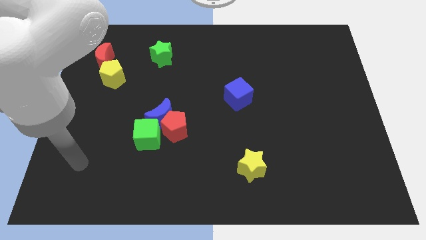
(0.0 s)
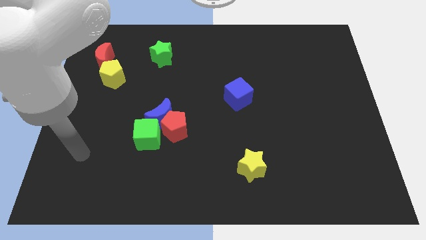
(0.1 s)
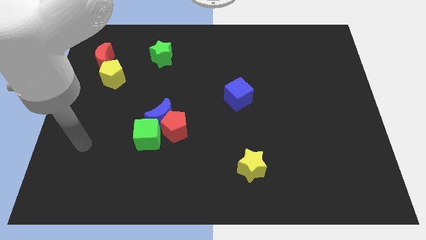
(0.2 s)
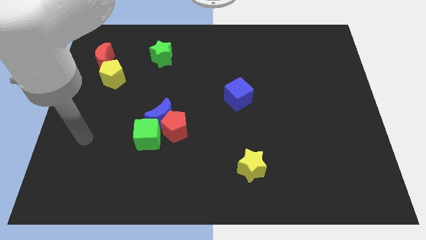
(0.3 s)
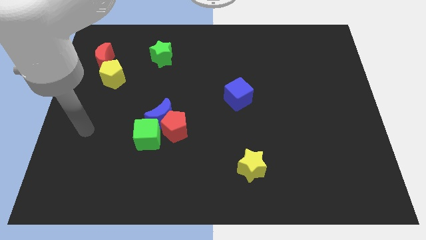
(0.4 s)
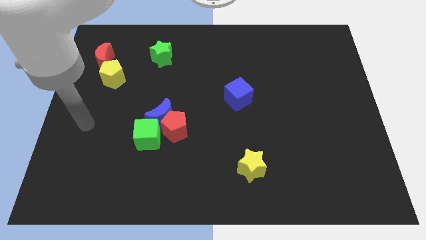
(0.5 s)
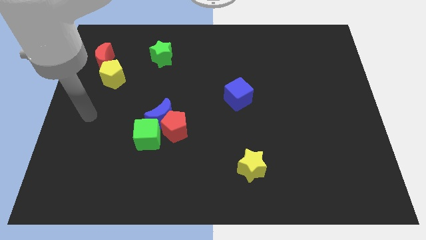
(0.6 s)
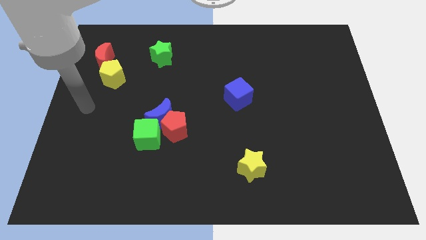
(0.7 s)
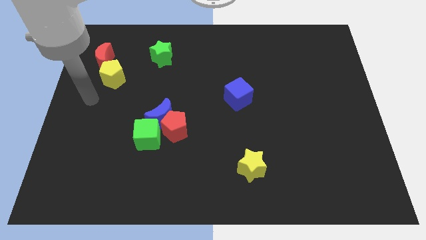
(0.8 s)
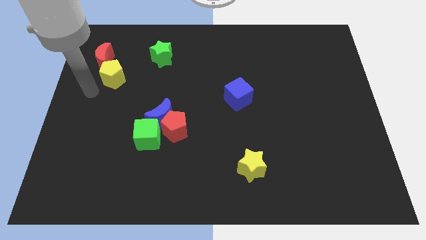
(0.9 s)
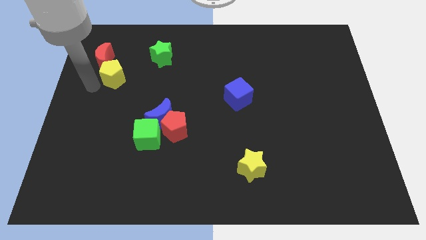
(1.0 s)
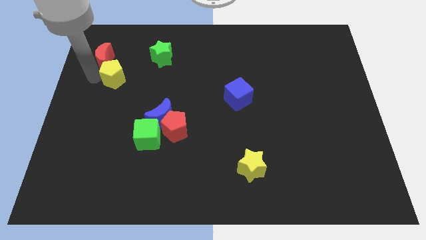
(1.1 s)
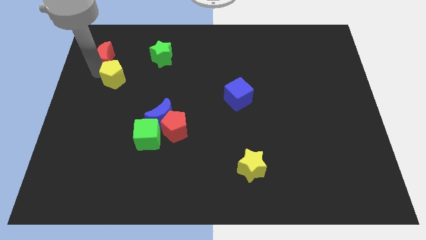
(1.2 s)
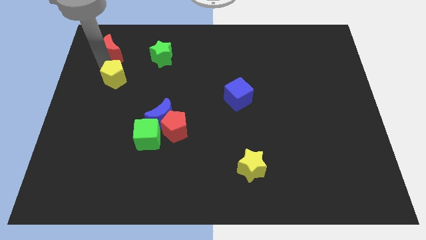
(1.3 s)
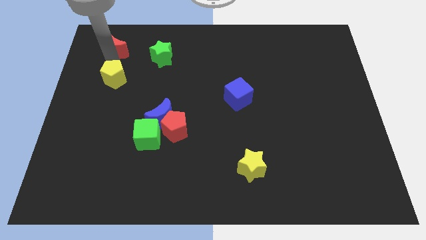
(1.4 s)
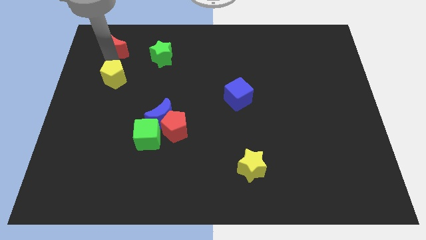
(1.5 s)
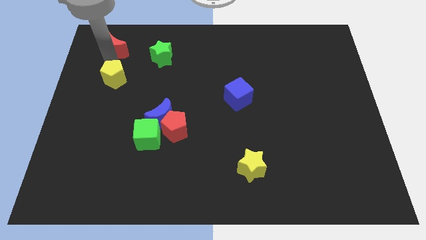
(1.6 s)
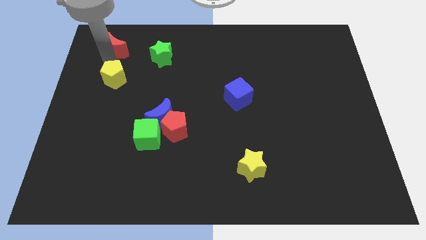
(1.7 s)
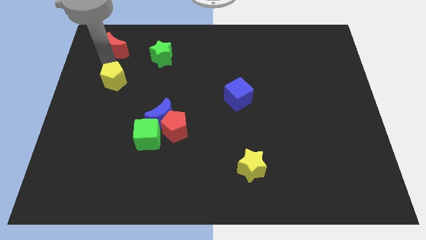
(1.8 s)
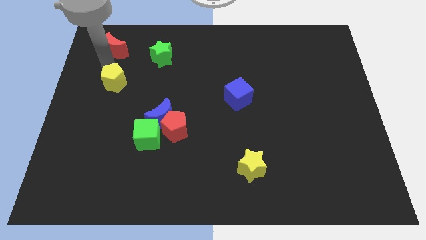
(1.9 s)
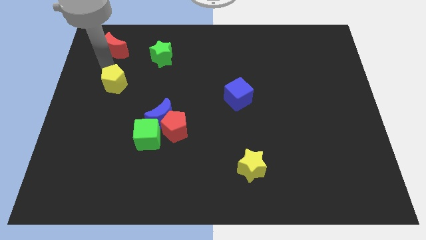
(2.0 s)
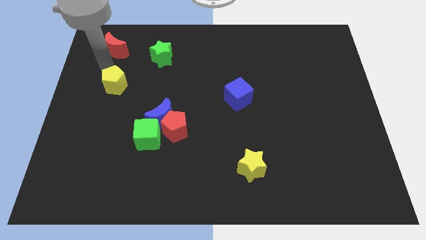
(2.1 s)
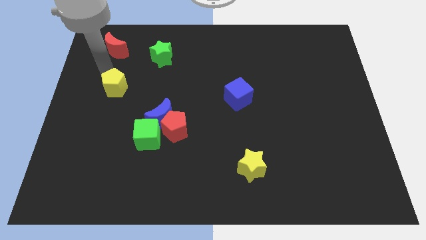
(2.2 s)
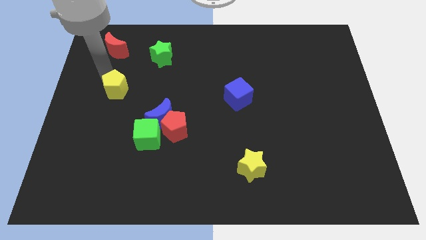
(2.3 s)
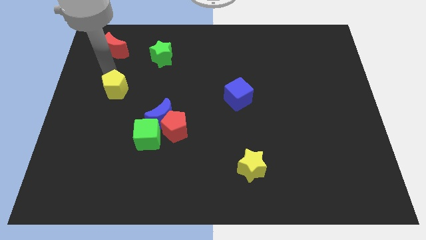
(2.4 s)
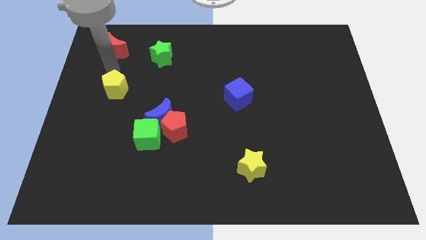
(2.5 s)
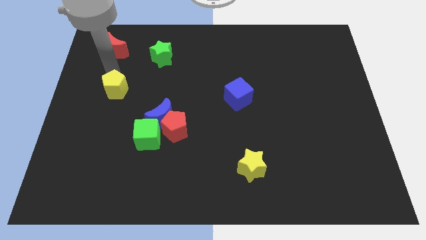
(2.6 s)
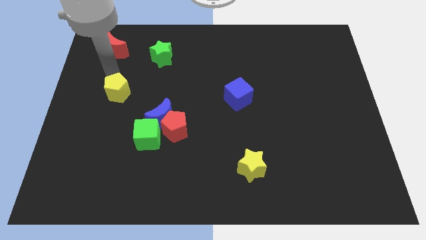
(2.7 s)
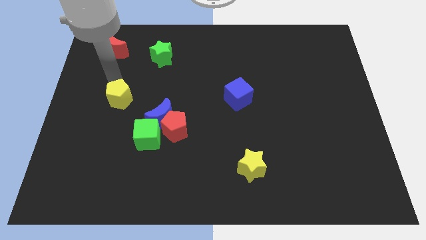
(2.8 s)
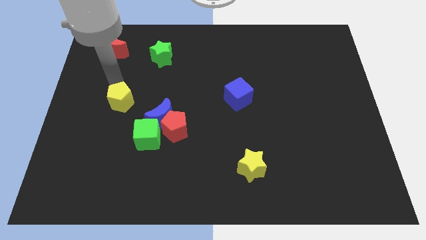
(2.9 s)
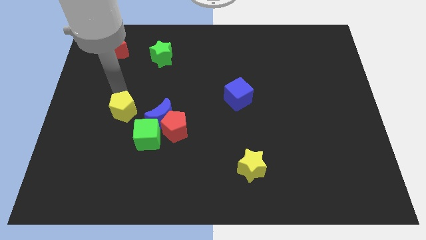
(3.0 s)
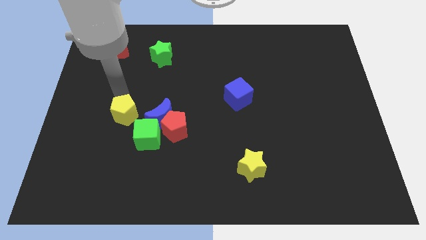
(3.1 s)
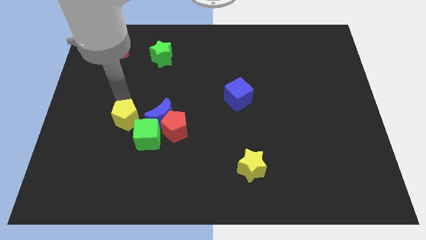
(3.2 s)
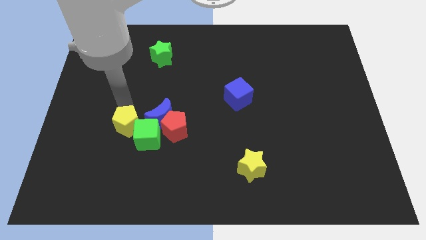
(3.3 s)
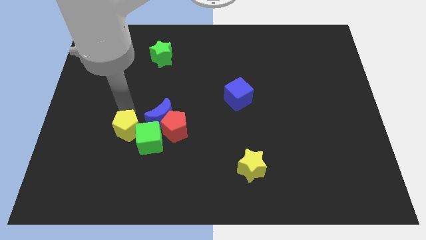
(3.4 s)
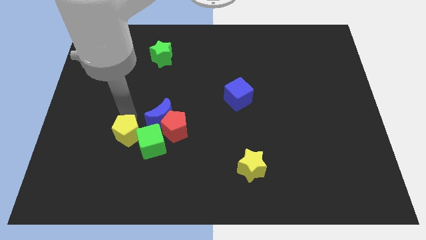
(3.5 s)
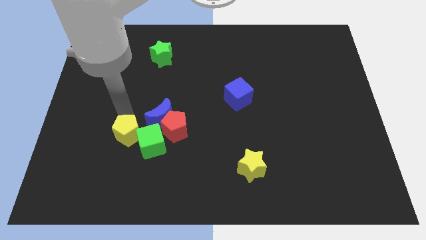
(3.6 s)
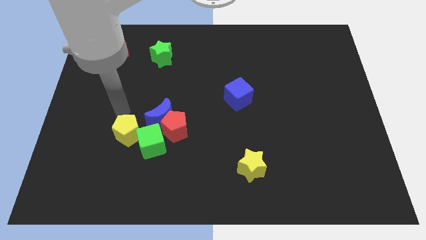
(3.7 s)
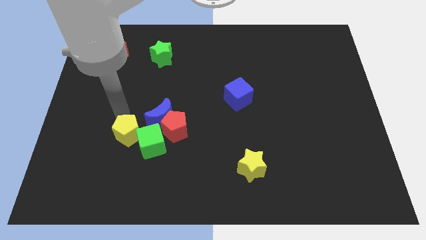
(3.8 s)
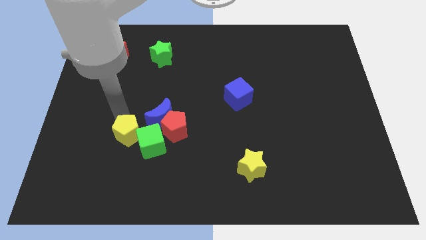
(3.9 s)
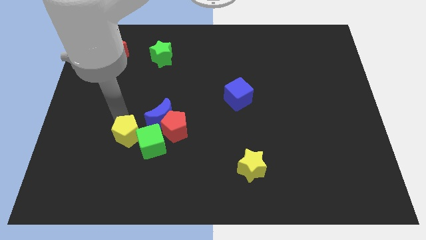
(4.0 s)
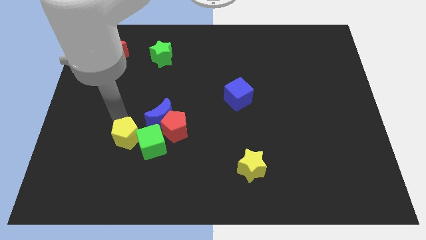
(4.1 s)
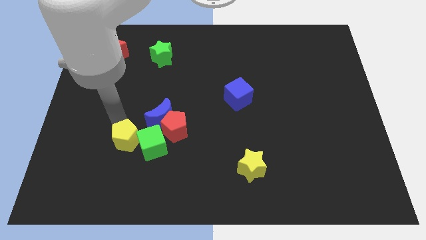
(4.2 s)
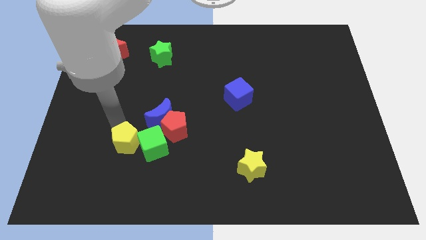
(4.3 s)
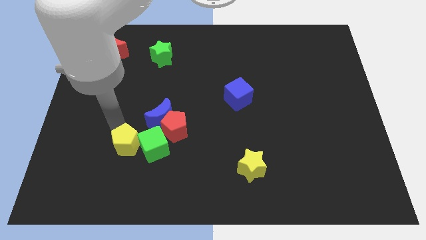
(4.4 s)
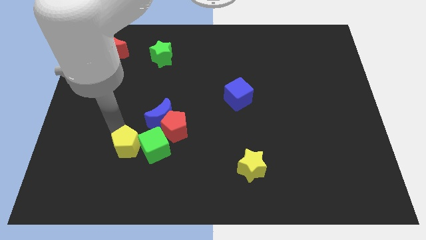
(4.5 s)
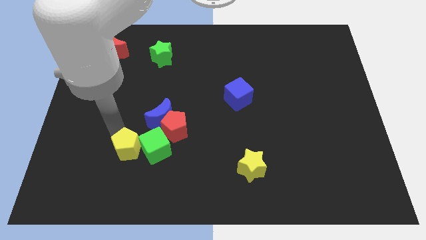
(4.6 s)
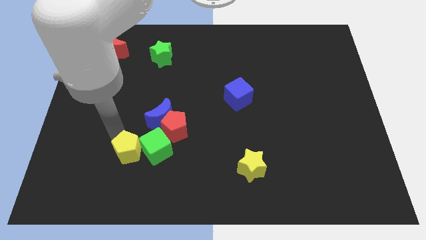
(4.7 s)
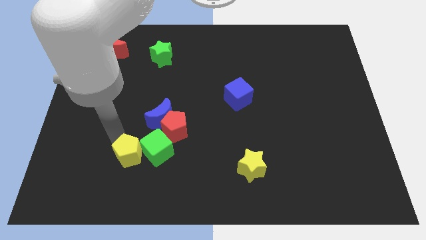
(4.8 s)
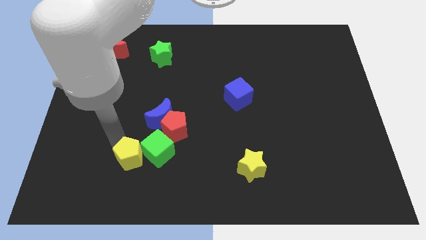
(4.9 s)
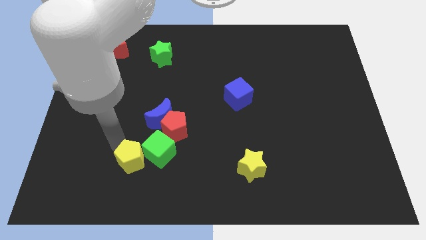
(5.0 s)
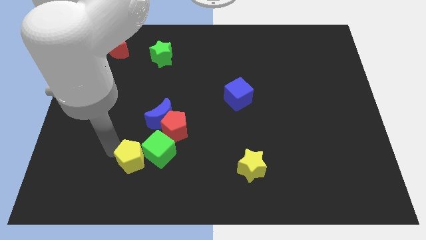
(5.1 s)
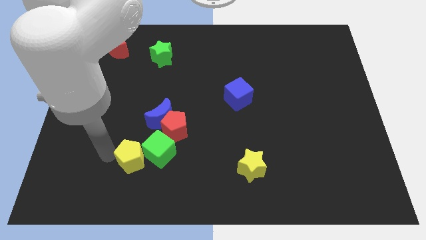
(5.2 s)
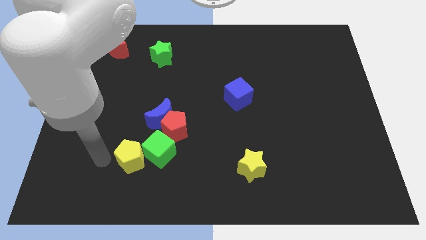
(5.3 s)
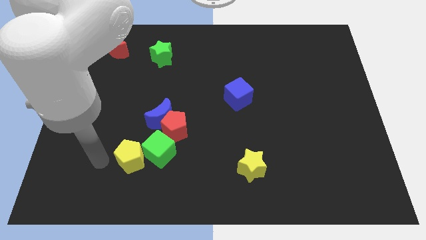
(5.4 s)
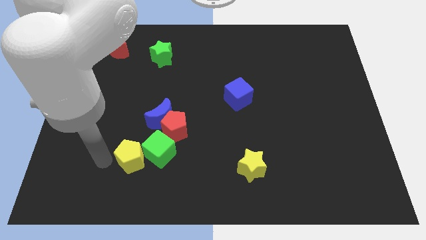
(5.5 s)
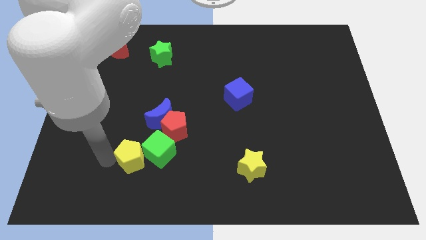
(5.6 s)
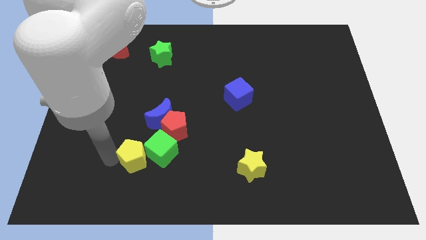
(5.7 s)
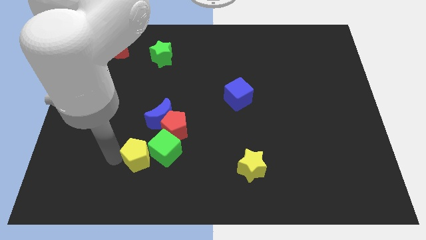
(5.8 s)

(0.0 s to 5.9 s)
push the yellow pentagon below the blue moon

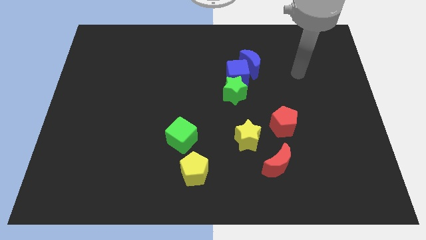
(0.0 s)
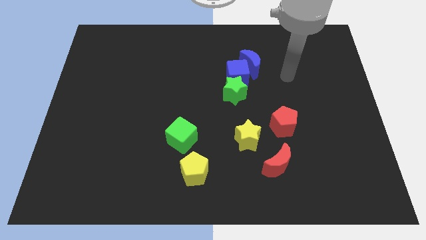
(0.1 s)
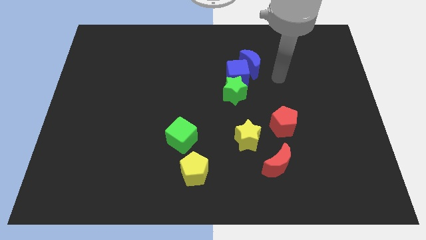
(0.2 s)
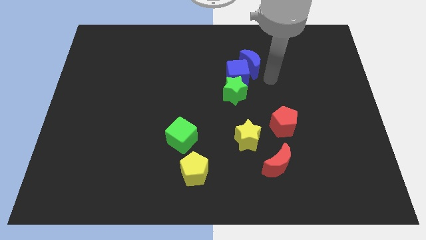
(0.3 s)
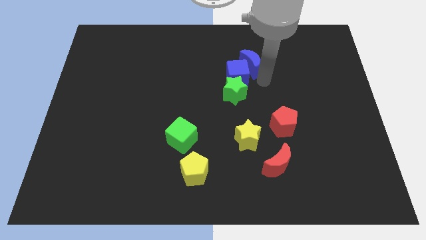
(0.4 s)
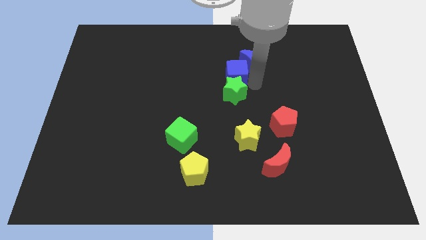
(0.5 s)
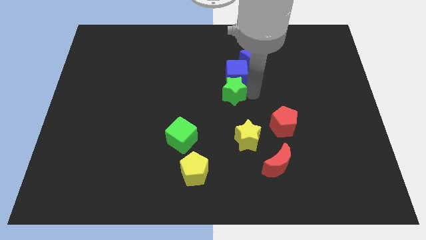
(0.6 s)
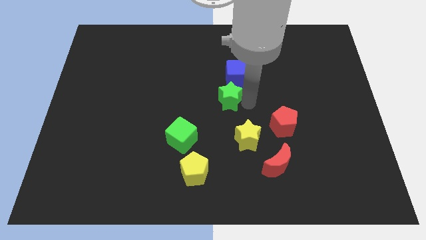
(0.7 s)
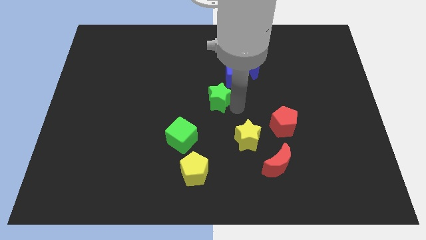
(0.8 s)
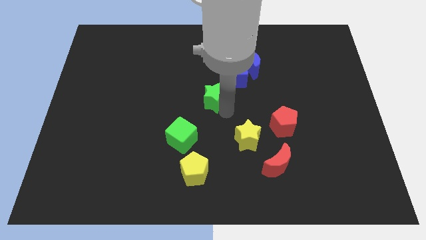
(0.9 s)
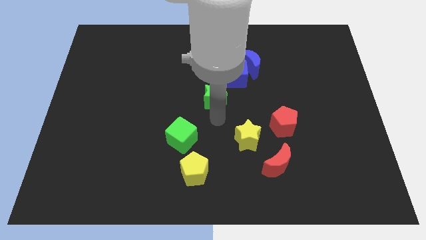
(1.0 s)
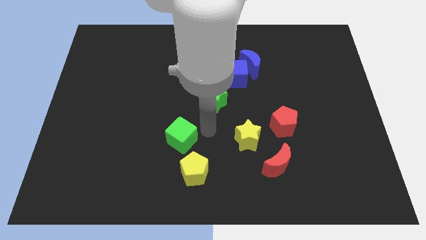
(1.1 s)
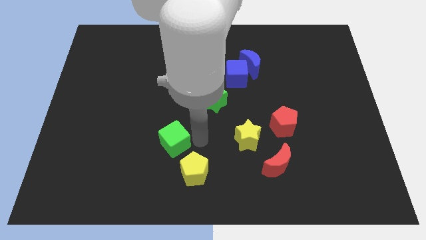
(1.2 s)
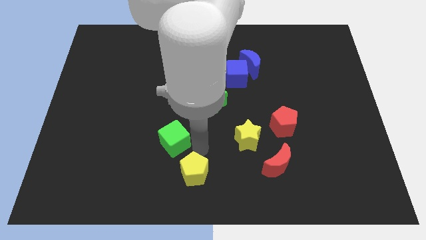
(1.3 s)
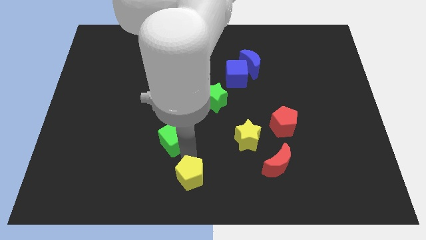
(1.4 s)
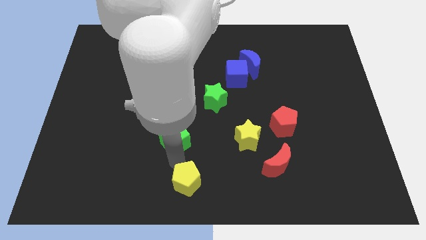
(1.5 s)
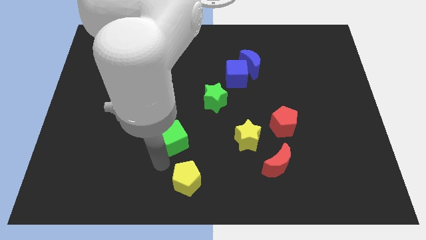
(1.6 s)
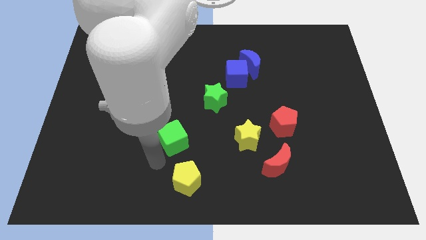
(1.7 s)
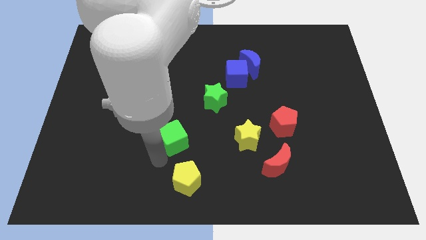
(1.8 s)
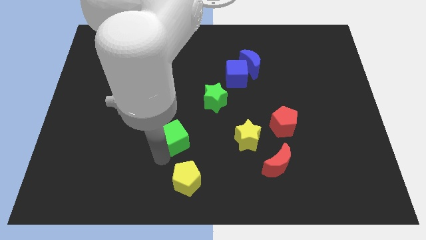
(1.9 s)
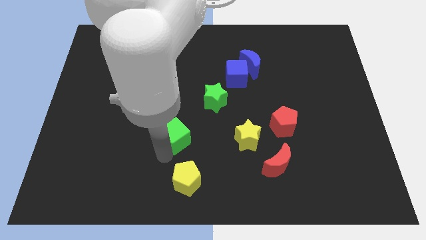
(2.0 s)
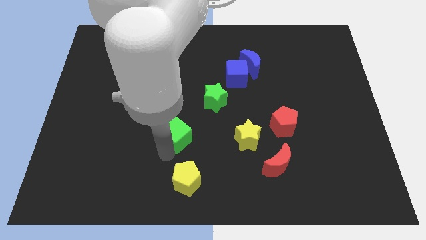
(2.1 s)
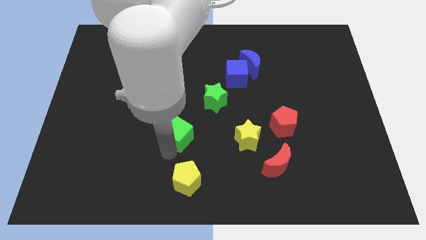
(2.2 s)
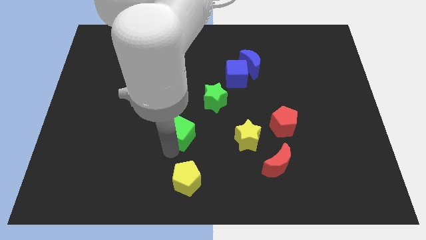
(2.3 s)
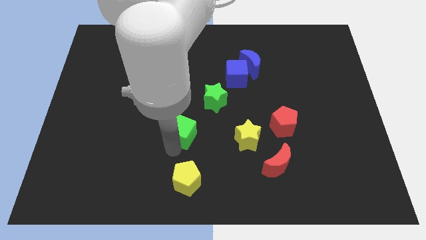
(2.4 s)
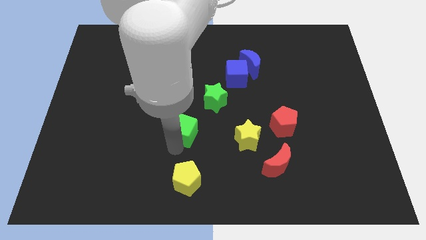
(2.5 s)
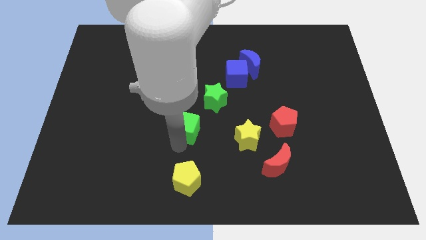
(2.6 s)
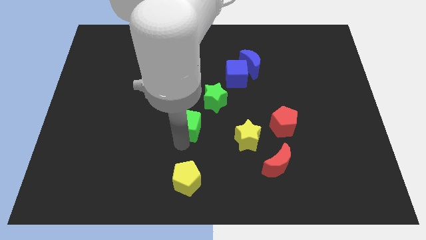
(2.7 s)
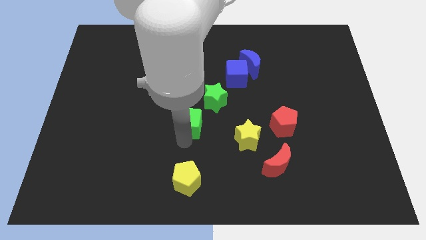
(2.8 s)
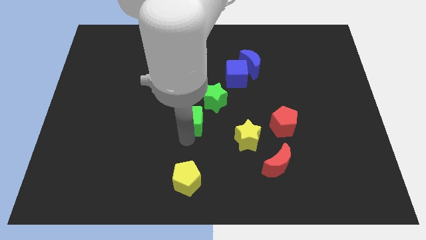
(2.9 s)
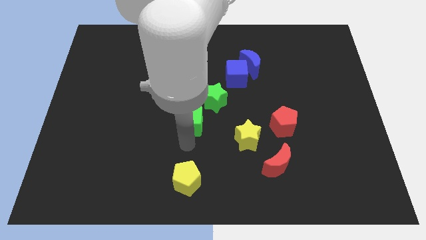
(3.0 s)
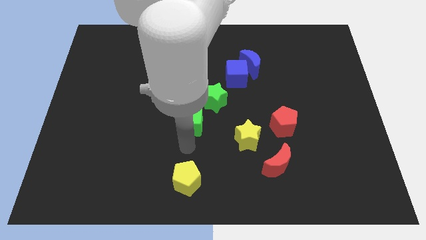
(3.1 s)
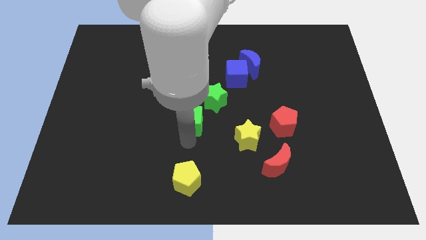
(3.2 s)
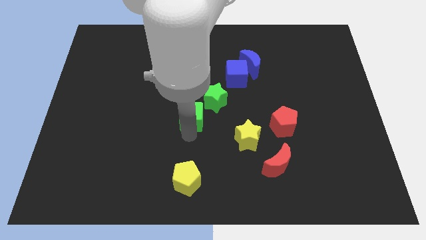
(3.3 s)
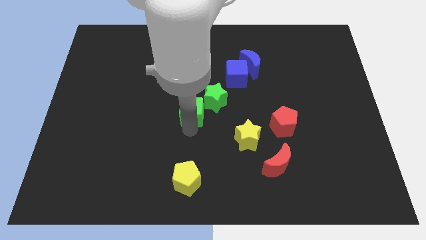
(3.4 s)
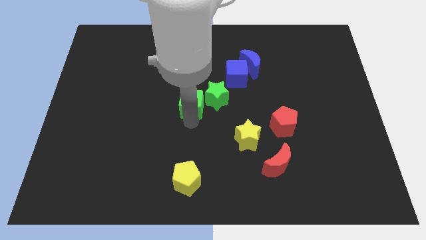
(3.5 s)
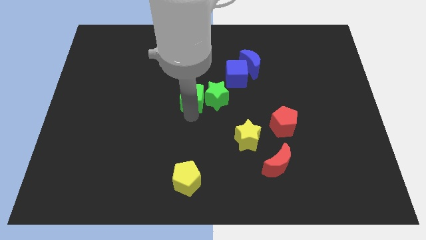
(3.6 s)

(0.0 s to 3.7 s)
push the green cube to the top left side of the green star
